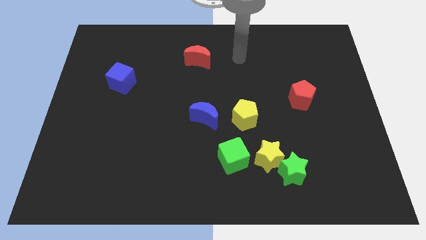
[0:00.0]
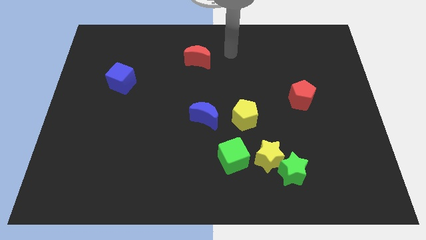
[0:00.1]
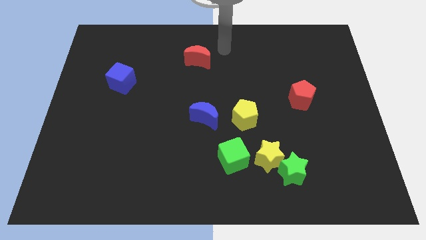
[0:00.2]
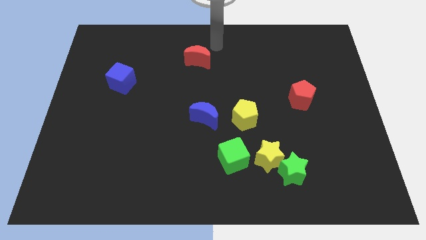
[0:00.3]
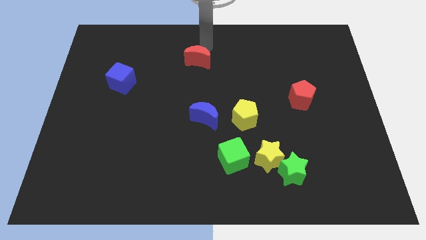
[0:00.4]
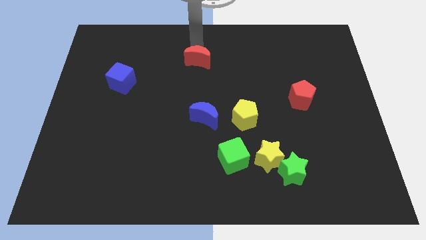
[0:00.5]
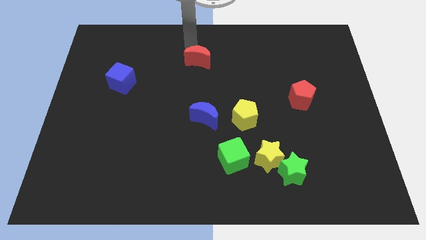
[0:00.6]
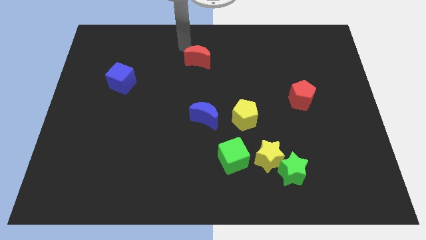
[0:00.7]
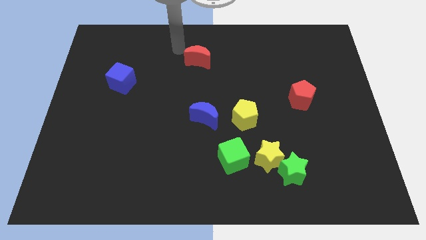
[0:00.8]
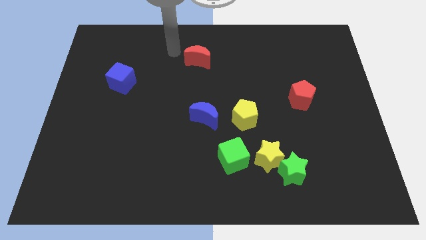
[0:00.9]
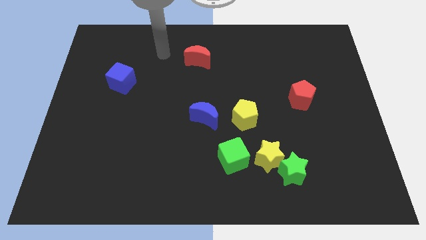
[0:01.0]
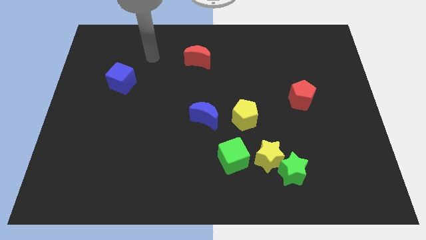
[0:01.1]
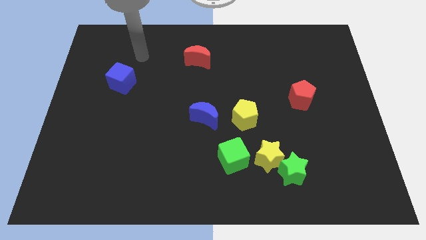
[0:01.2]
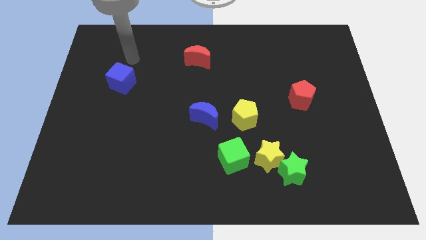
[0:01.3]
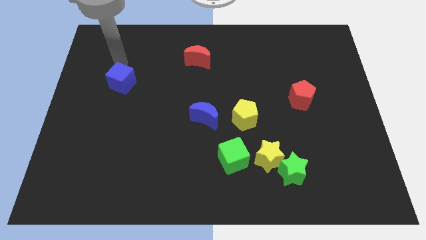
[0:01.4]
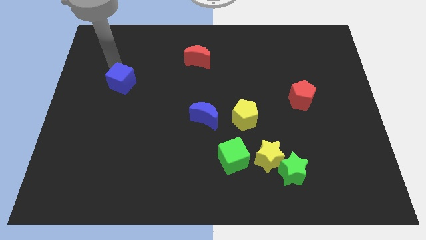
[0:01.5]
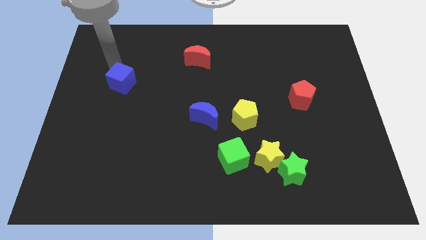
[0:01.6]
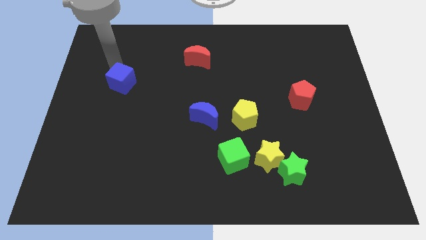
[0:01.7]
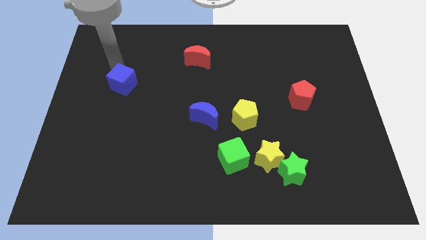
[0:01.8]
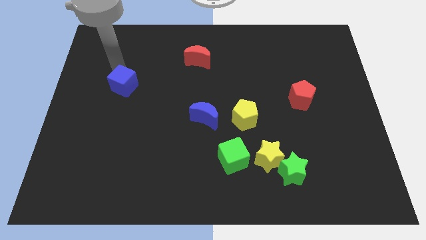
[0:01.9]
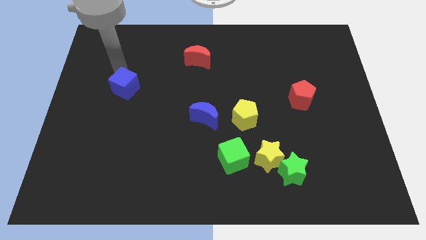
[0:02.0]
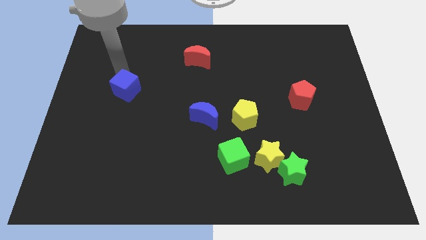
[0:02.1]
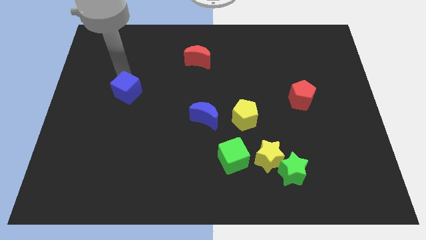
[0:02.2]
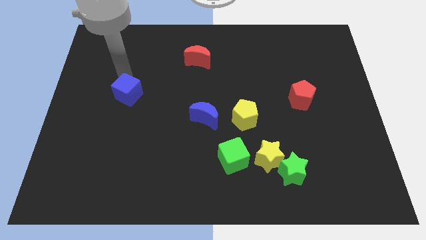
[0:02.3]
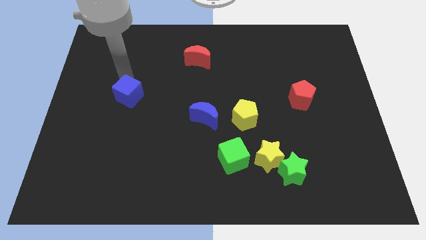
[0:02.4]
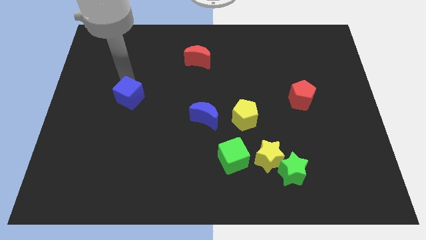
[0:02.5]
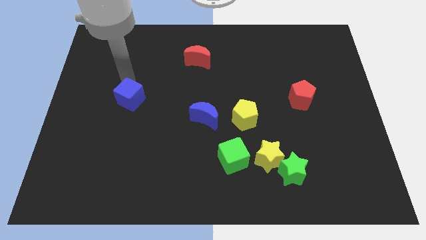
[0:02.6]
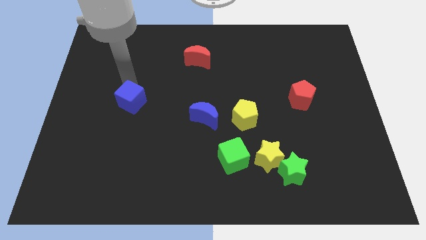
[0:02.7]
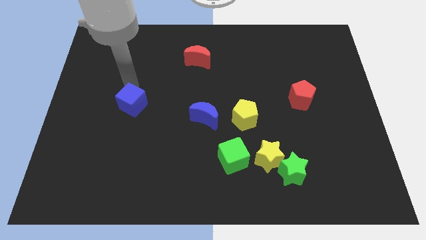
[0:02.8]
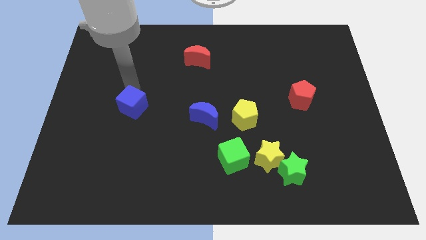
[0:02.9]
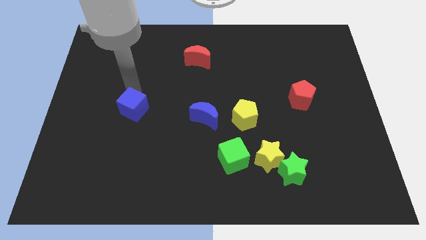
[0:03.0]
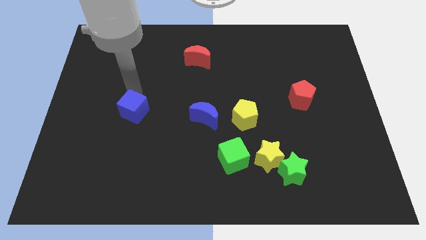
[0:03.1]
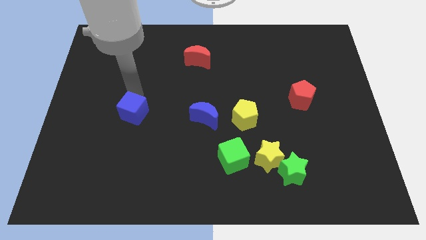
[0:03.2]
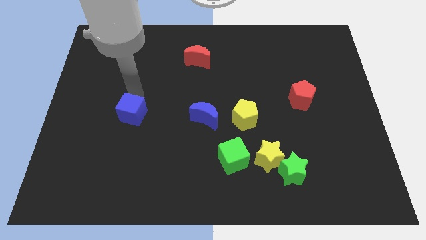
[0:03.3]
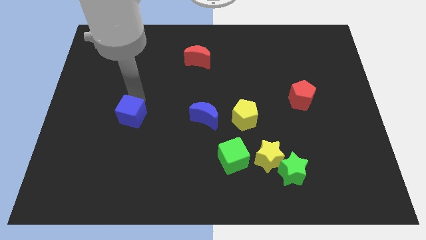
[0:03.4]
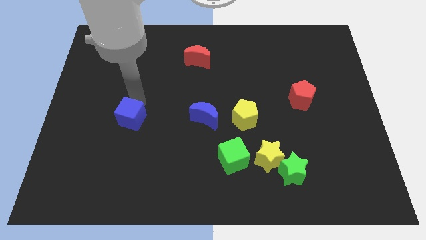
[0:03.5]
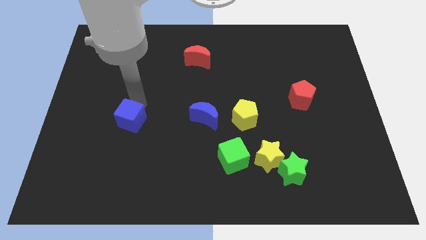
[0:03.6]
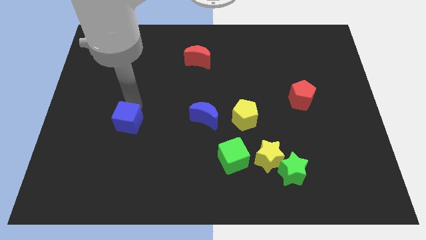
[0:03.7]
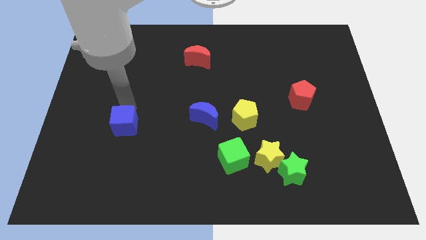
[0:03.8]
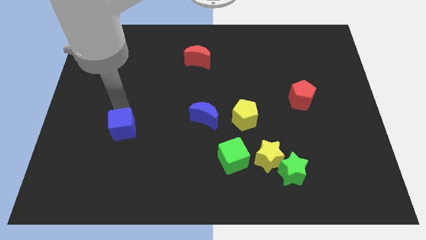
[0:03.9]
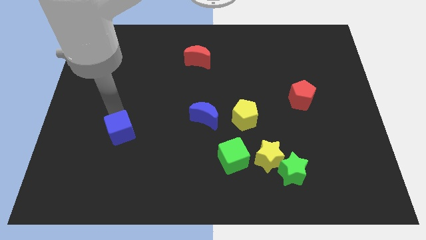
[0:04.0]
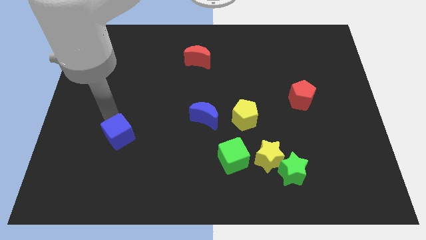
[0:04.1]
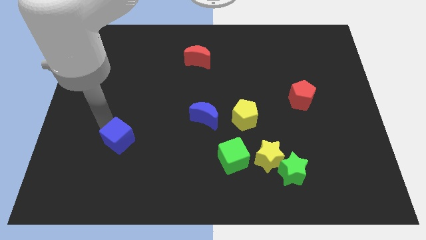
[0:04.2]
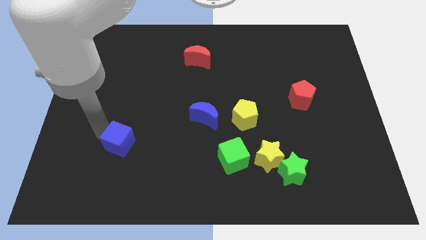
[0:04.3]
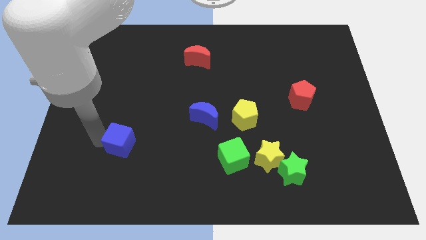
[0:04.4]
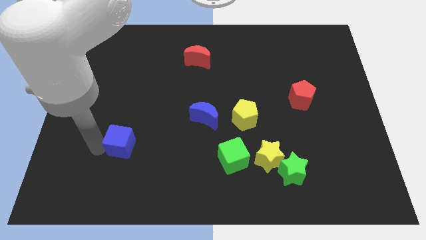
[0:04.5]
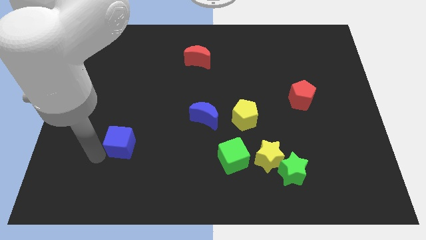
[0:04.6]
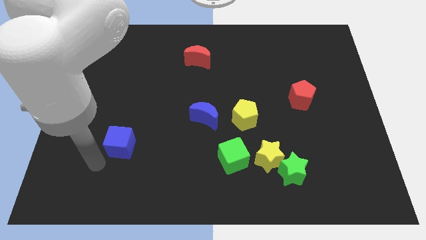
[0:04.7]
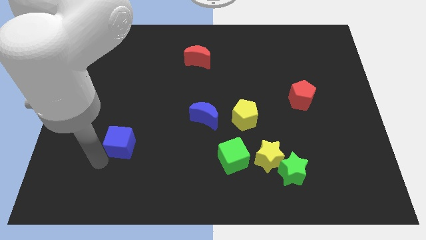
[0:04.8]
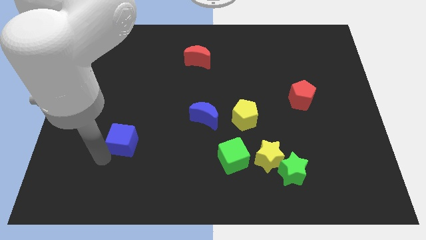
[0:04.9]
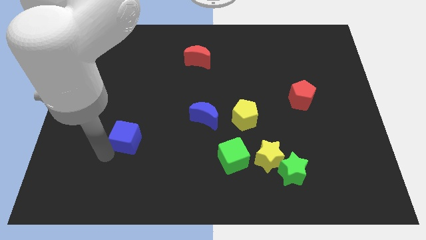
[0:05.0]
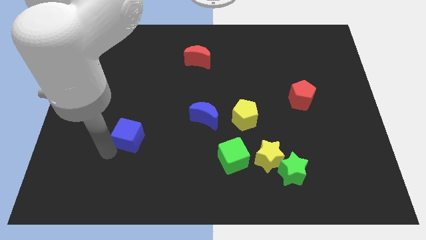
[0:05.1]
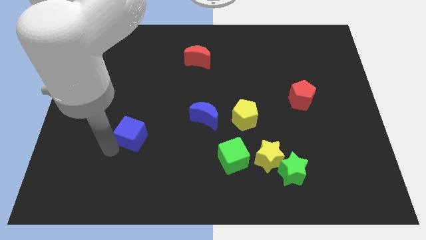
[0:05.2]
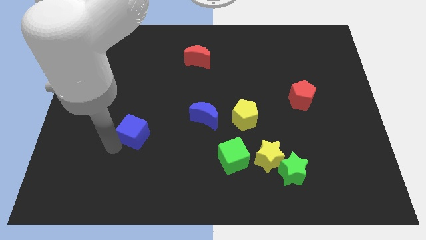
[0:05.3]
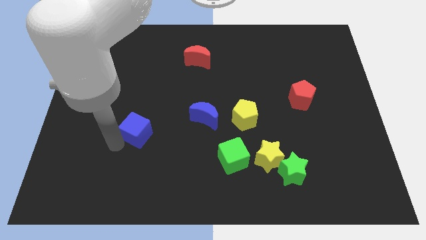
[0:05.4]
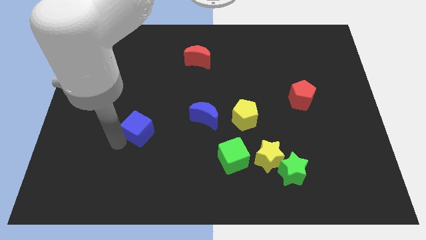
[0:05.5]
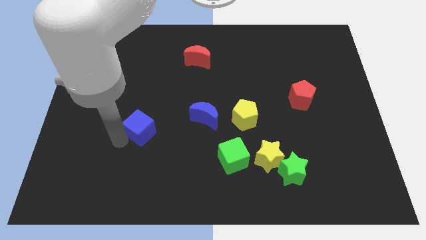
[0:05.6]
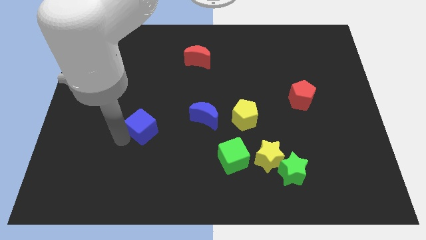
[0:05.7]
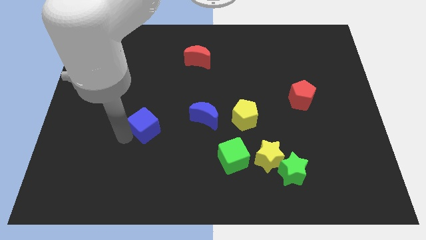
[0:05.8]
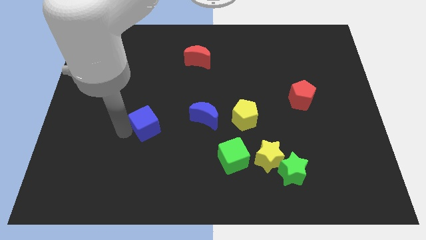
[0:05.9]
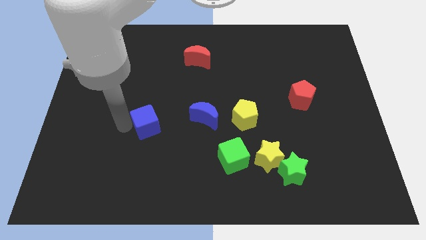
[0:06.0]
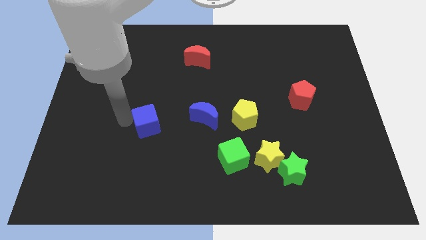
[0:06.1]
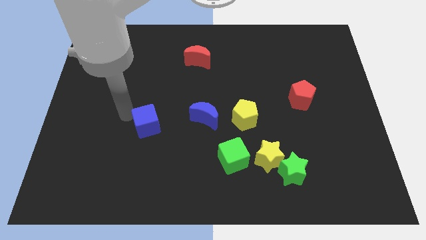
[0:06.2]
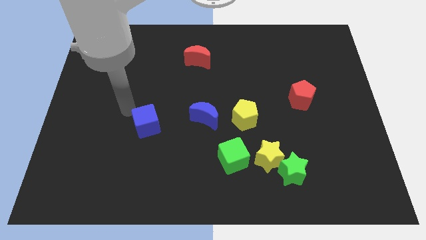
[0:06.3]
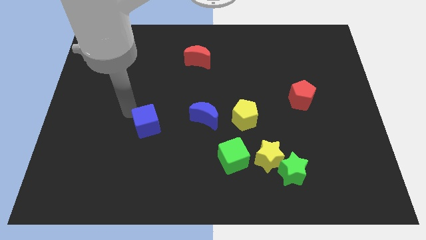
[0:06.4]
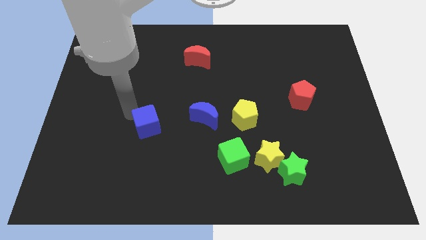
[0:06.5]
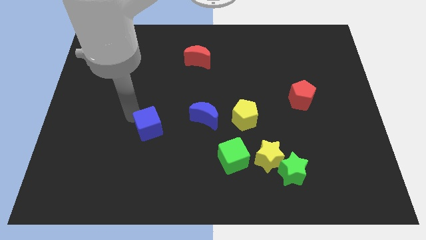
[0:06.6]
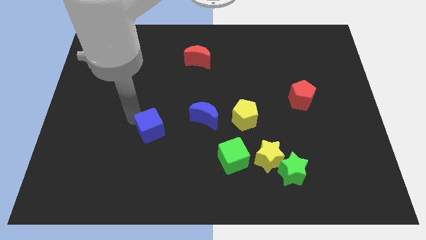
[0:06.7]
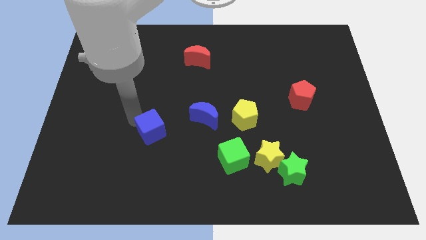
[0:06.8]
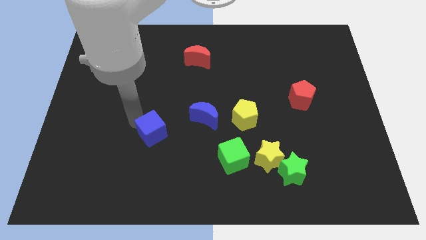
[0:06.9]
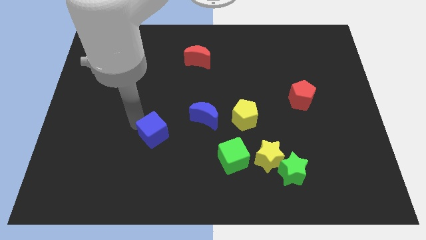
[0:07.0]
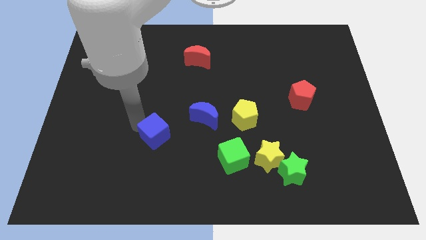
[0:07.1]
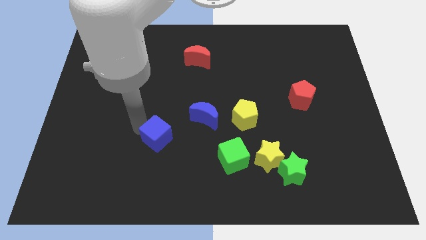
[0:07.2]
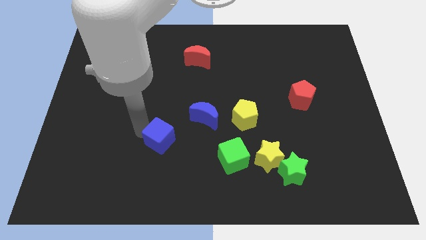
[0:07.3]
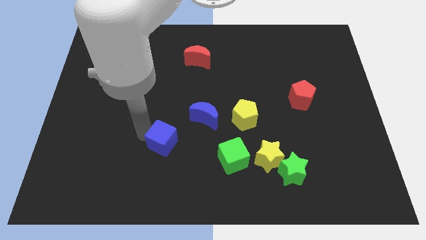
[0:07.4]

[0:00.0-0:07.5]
push the blue cube downwards and right diagonally

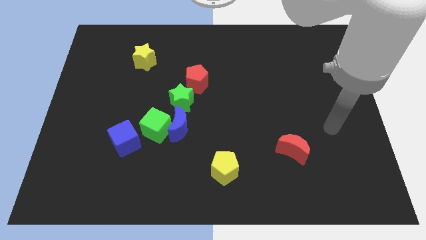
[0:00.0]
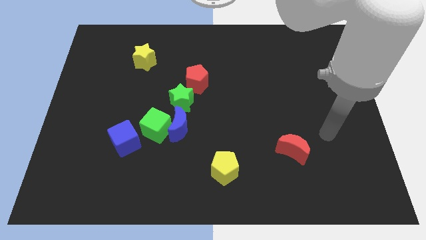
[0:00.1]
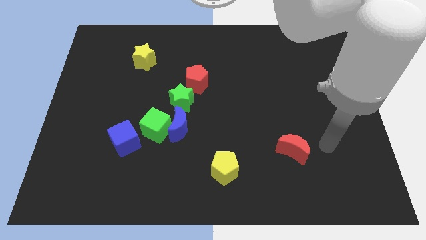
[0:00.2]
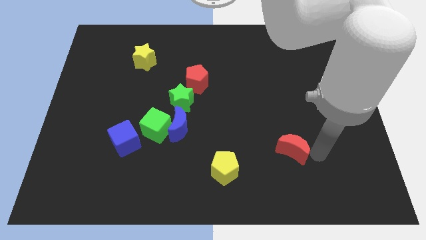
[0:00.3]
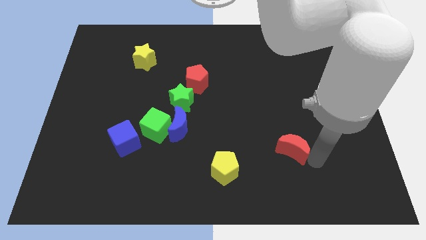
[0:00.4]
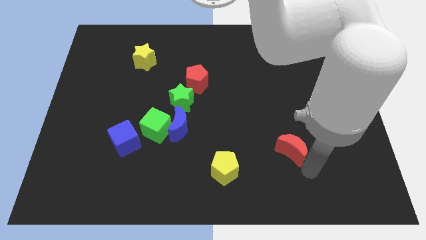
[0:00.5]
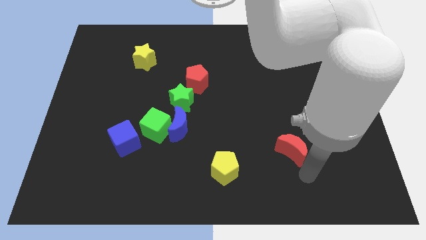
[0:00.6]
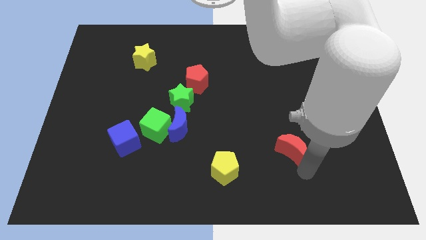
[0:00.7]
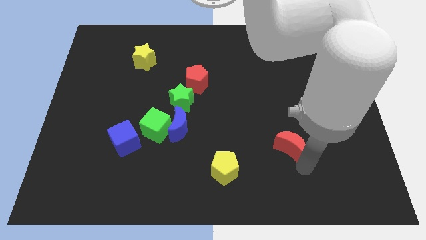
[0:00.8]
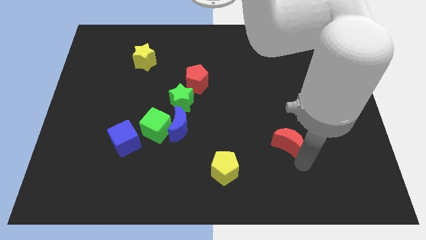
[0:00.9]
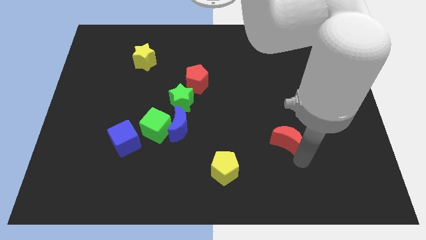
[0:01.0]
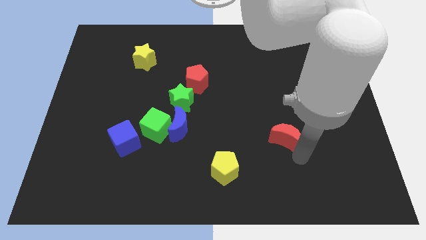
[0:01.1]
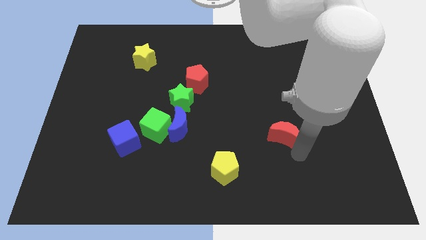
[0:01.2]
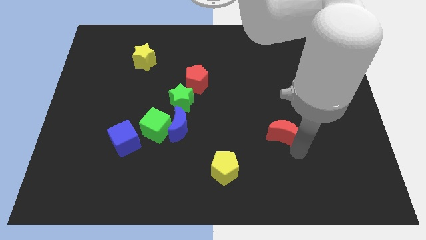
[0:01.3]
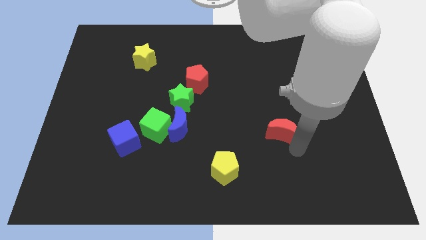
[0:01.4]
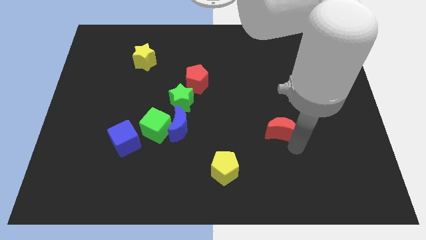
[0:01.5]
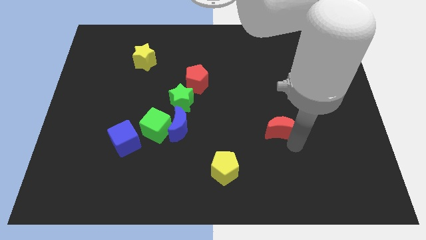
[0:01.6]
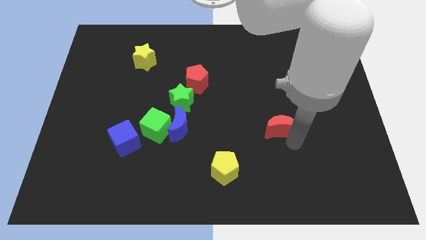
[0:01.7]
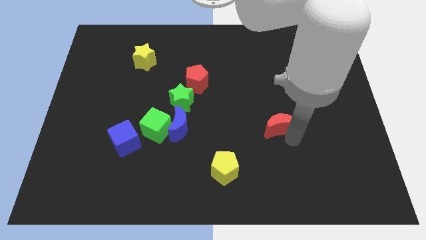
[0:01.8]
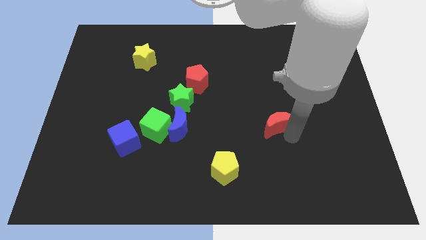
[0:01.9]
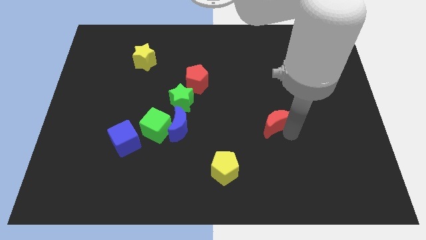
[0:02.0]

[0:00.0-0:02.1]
slide the red moon a bit up and then left
